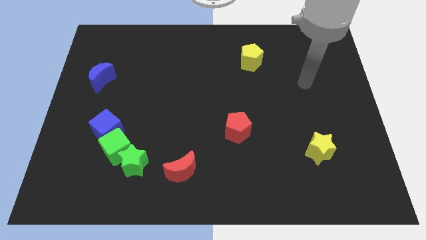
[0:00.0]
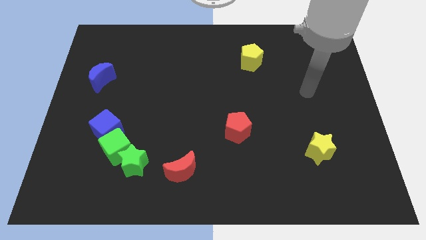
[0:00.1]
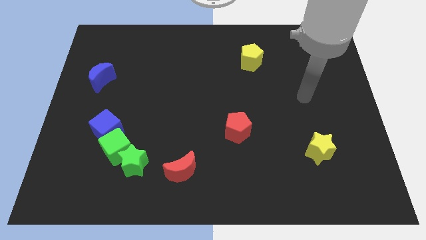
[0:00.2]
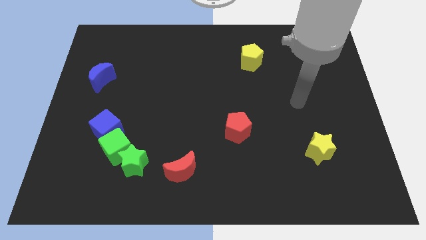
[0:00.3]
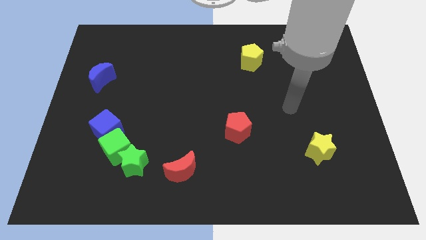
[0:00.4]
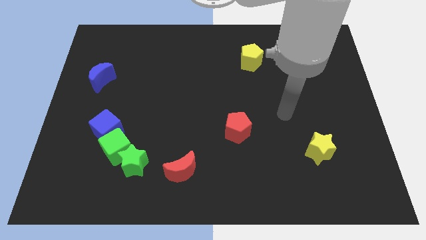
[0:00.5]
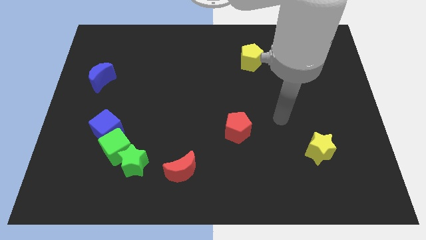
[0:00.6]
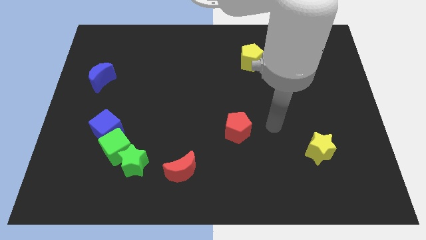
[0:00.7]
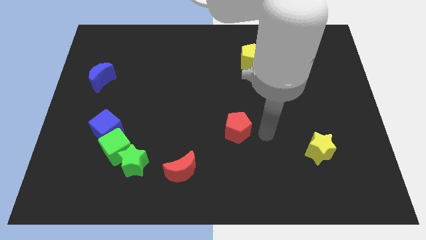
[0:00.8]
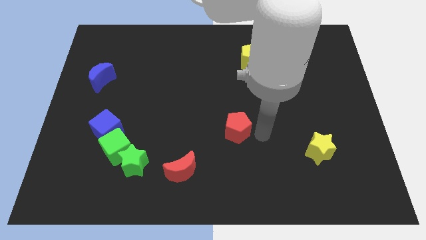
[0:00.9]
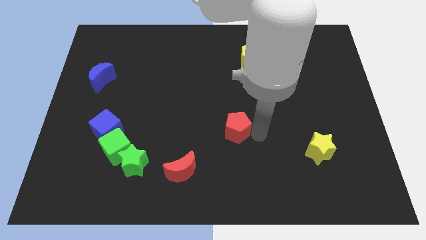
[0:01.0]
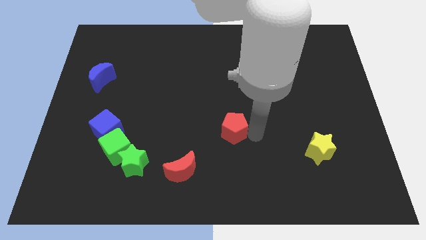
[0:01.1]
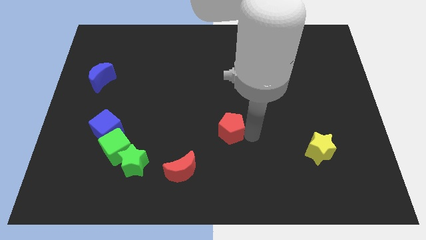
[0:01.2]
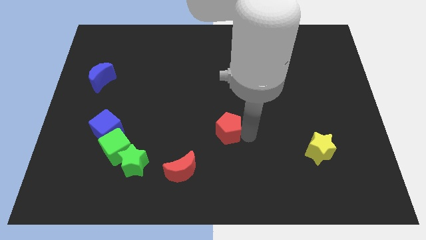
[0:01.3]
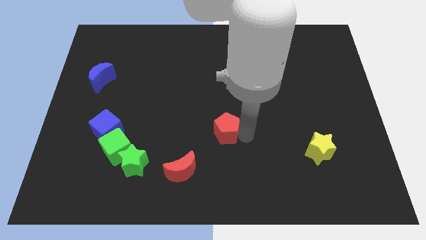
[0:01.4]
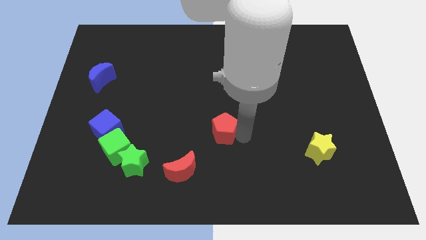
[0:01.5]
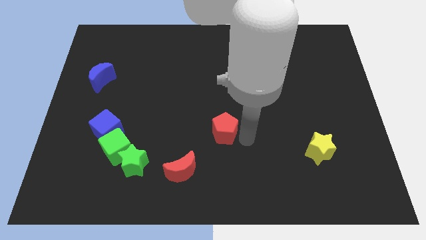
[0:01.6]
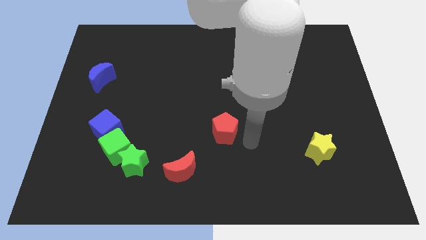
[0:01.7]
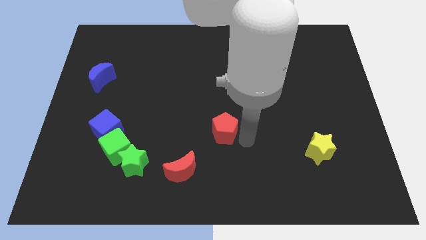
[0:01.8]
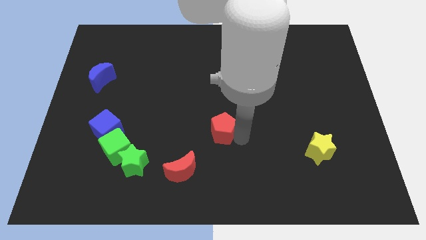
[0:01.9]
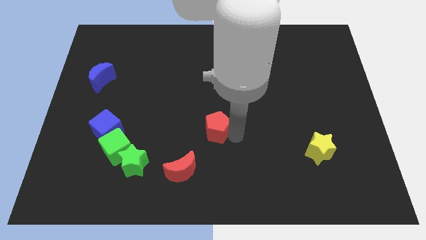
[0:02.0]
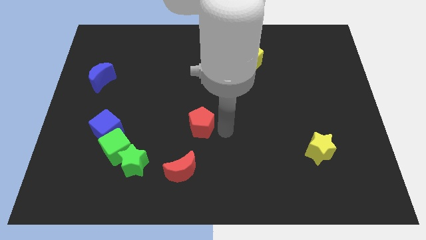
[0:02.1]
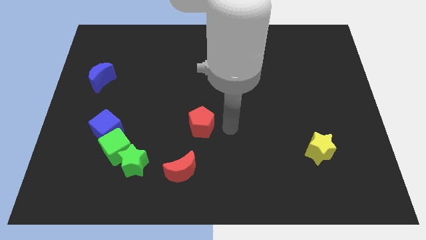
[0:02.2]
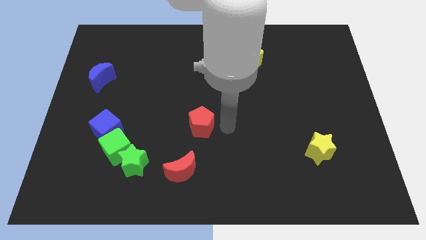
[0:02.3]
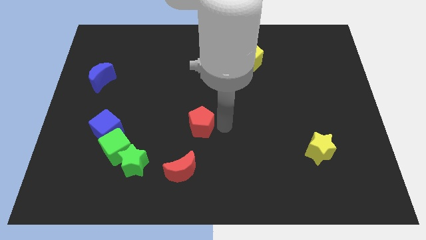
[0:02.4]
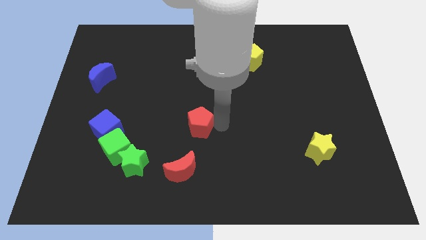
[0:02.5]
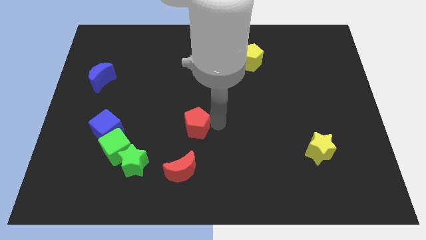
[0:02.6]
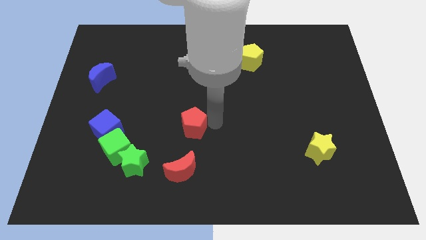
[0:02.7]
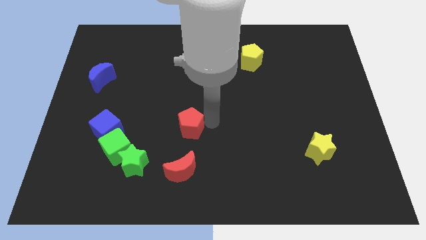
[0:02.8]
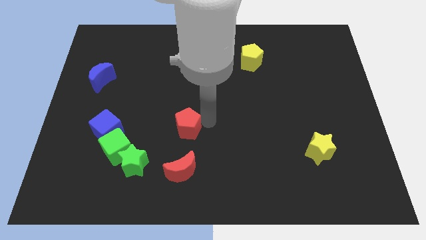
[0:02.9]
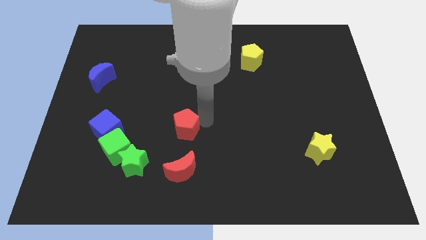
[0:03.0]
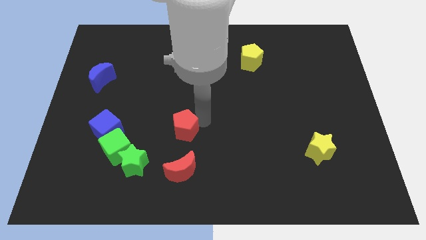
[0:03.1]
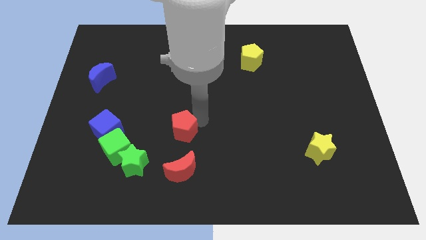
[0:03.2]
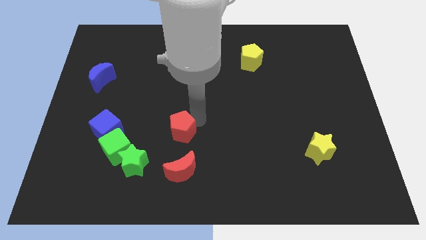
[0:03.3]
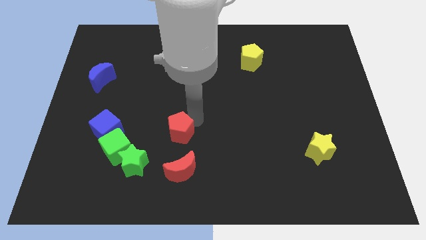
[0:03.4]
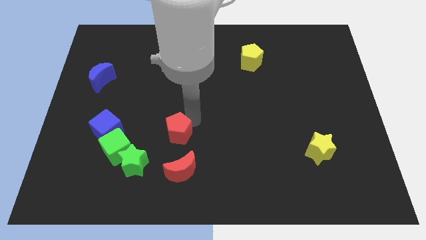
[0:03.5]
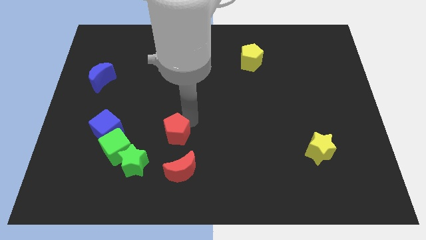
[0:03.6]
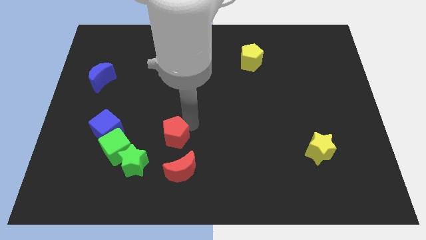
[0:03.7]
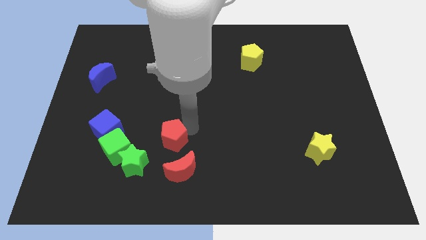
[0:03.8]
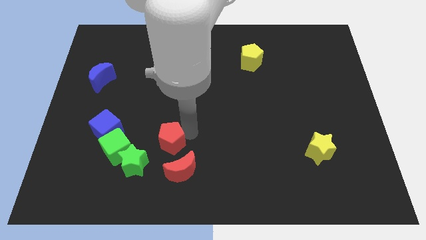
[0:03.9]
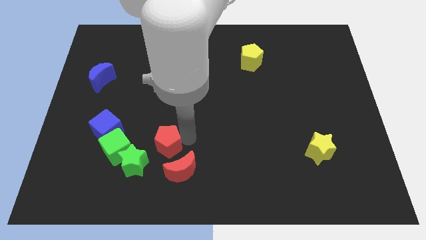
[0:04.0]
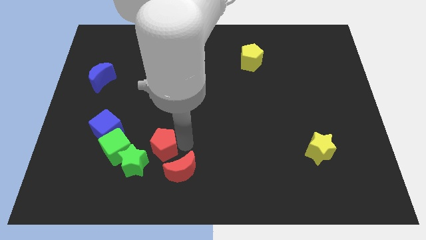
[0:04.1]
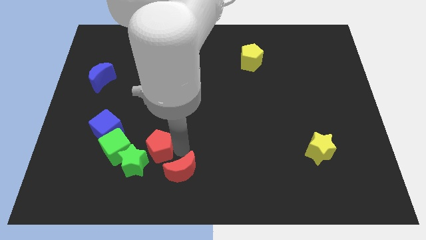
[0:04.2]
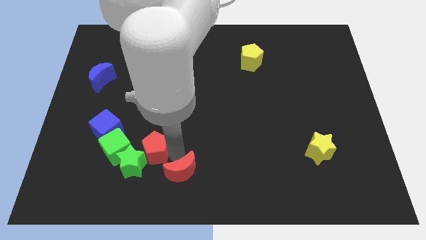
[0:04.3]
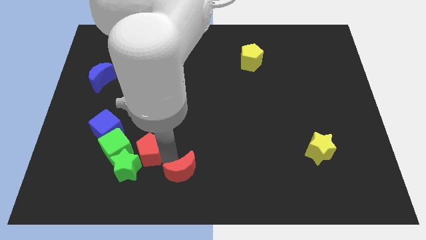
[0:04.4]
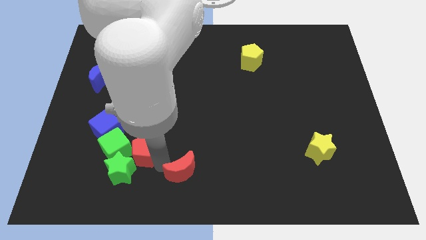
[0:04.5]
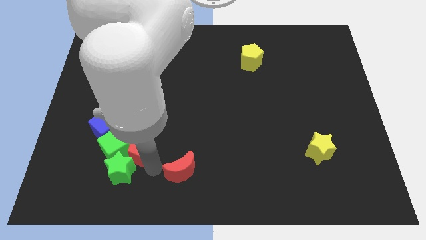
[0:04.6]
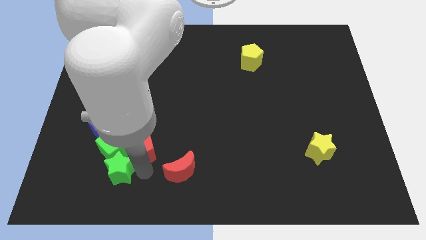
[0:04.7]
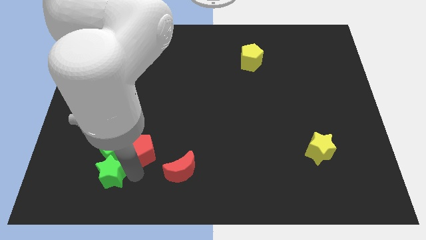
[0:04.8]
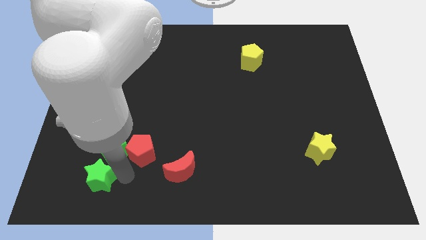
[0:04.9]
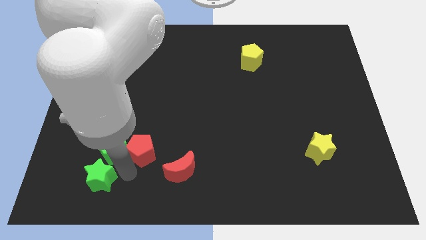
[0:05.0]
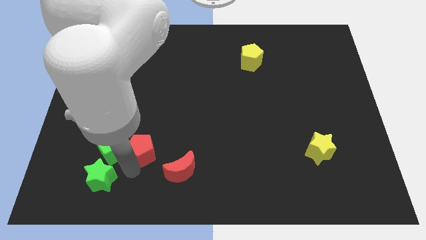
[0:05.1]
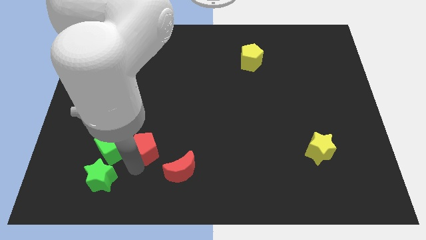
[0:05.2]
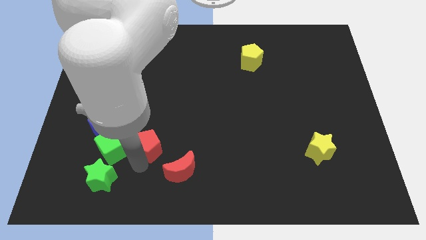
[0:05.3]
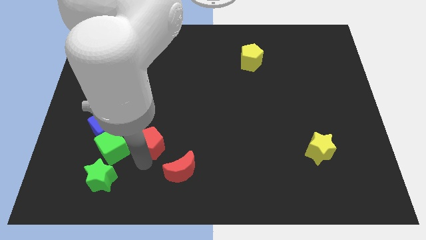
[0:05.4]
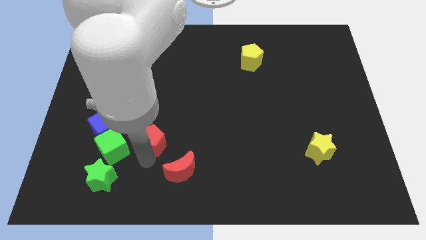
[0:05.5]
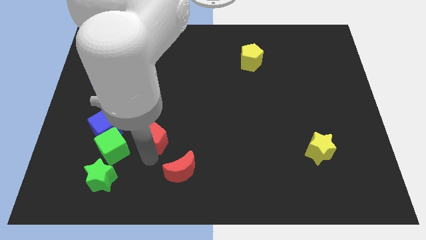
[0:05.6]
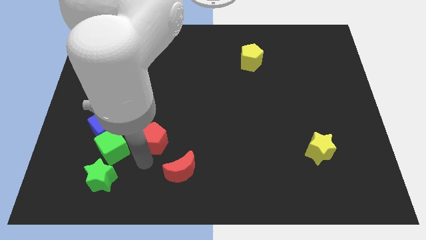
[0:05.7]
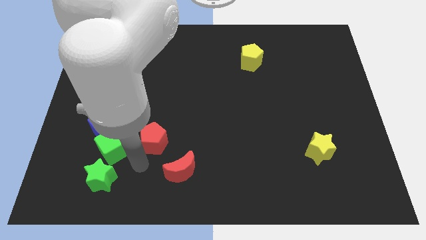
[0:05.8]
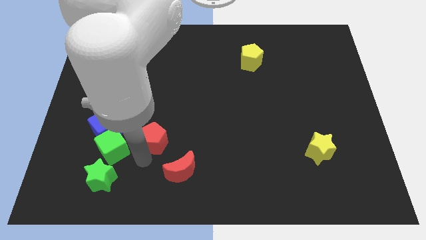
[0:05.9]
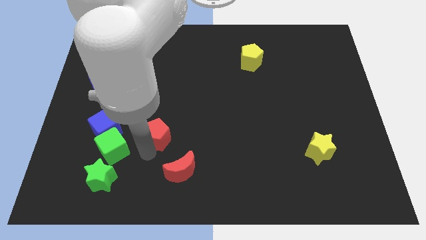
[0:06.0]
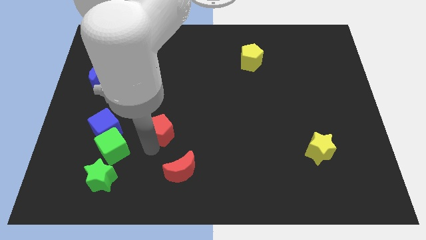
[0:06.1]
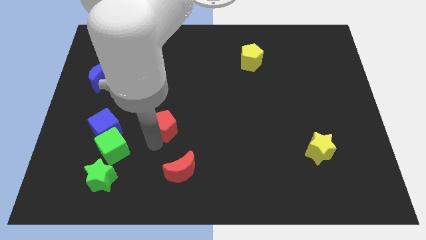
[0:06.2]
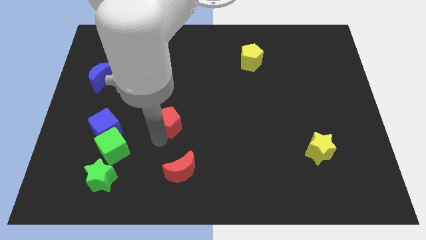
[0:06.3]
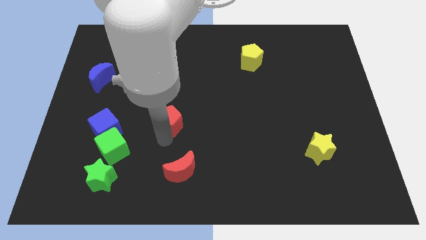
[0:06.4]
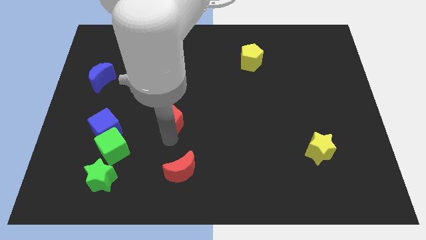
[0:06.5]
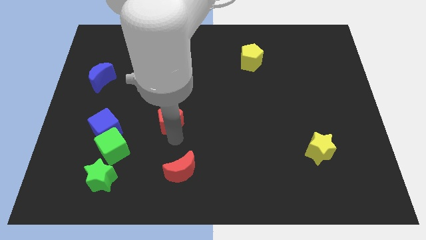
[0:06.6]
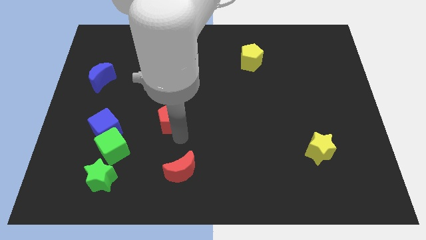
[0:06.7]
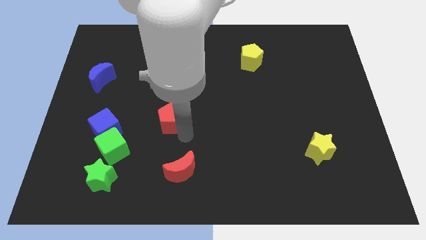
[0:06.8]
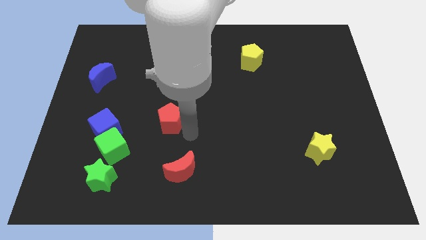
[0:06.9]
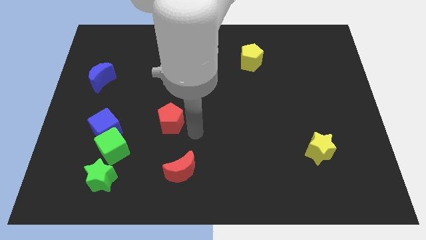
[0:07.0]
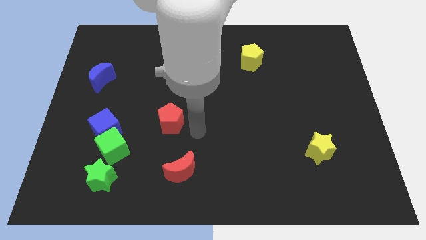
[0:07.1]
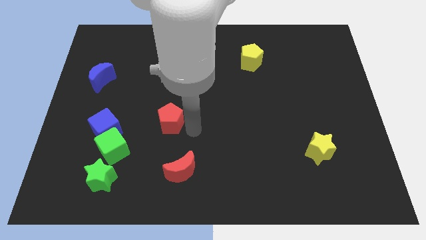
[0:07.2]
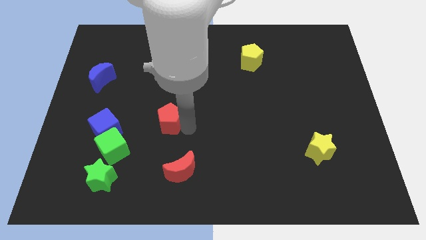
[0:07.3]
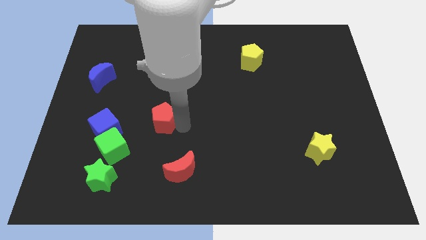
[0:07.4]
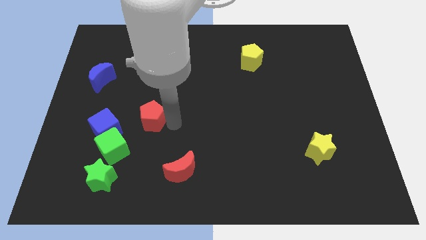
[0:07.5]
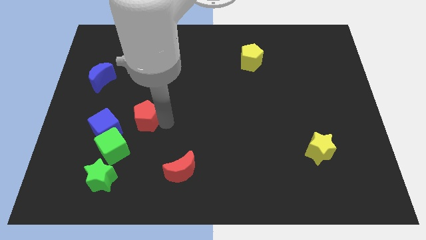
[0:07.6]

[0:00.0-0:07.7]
push the red pentagon to the top right side of the blue cube
